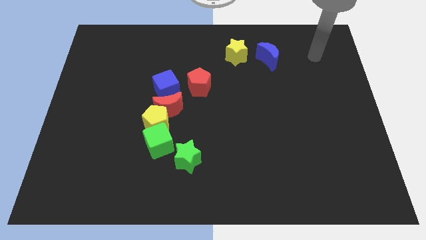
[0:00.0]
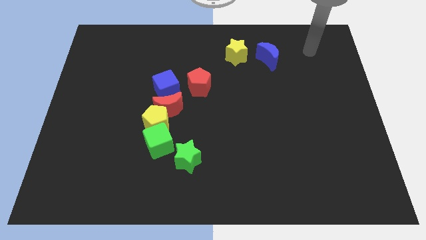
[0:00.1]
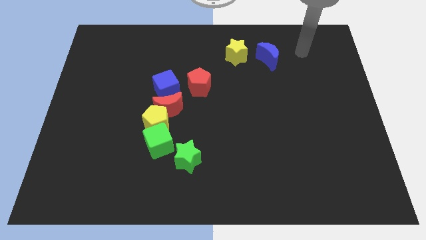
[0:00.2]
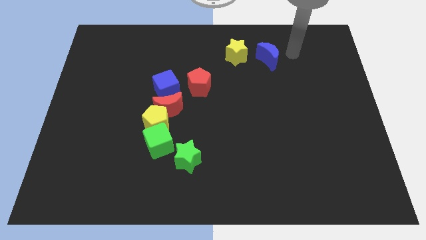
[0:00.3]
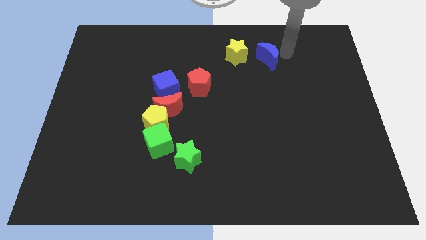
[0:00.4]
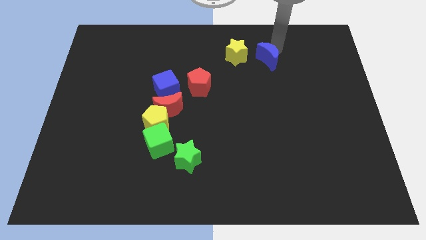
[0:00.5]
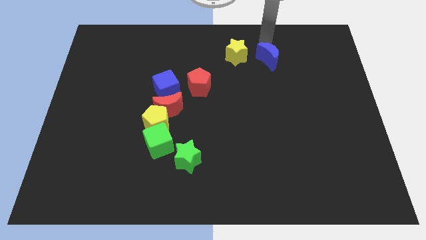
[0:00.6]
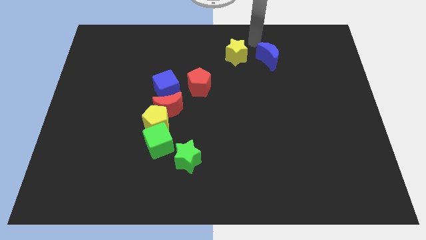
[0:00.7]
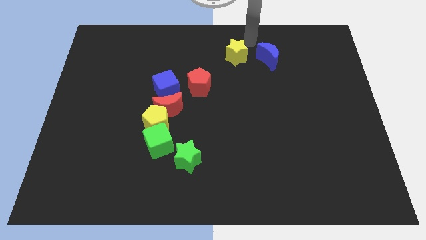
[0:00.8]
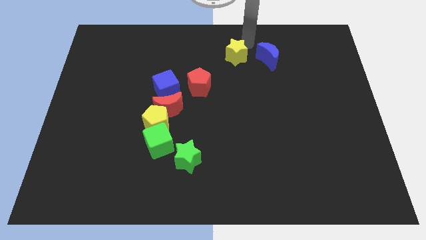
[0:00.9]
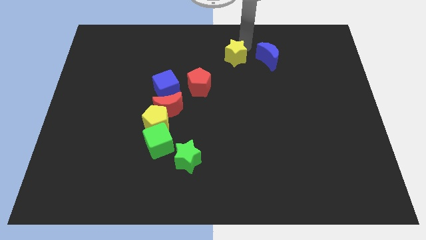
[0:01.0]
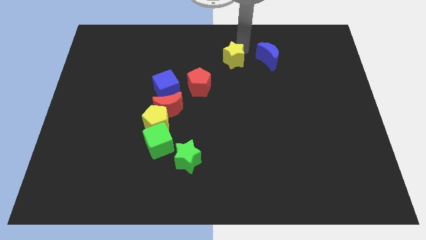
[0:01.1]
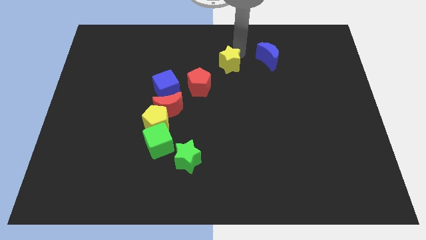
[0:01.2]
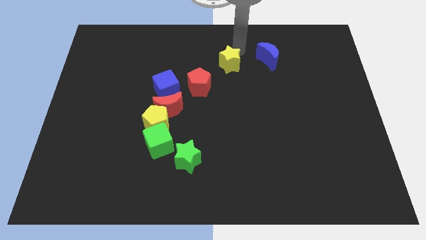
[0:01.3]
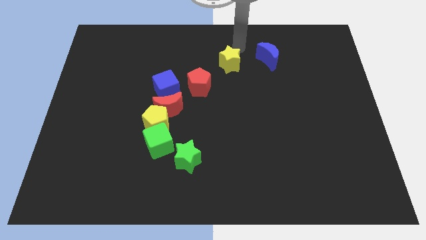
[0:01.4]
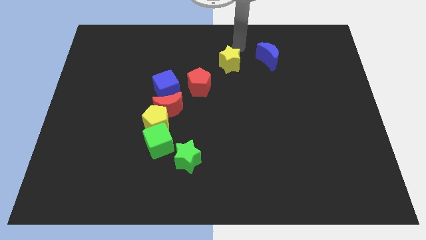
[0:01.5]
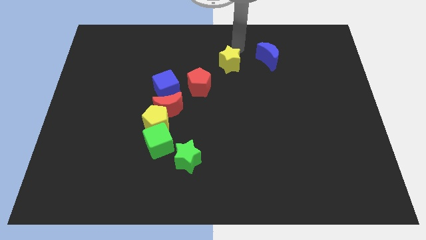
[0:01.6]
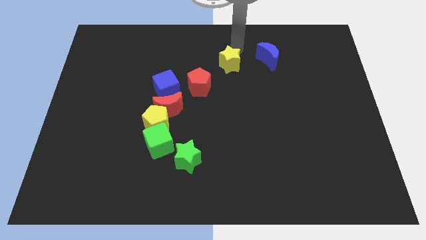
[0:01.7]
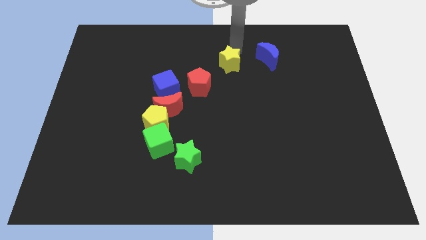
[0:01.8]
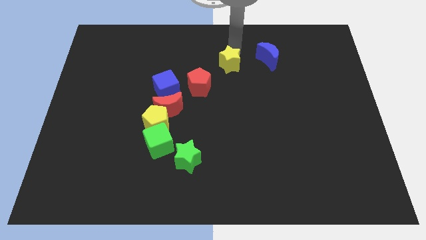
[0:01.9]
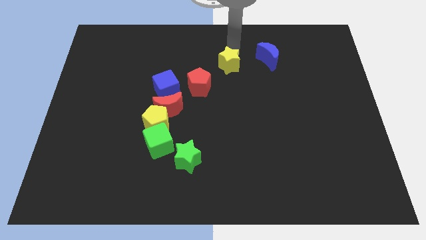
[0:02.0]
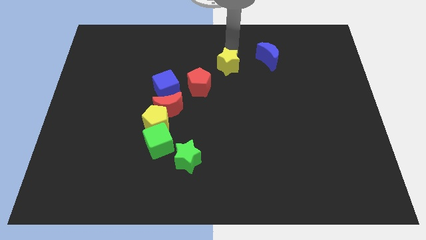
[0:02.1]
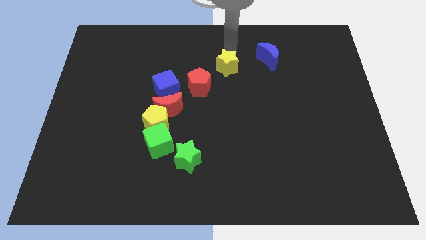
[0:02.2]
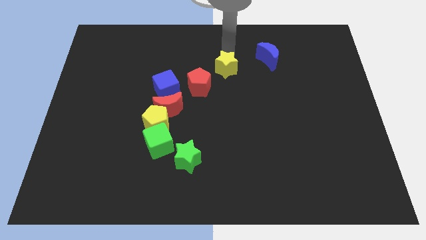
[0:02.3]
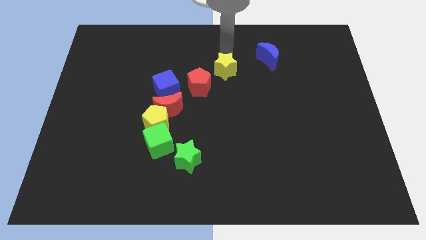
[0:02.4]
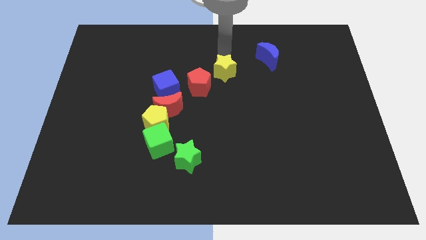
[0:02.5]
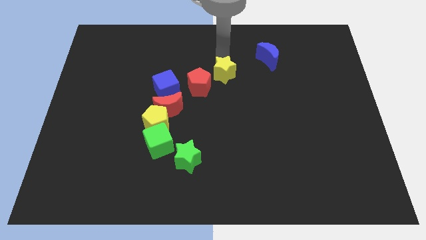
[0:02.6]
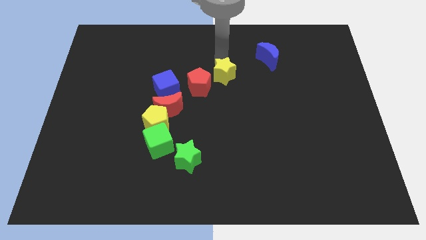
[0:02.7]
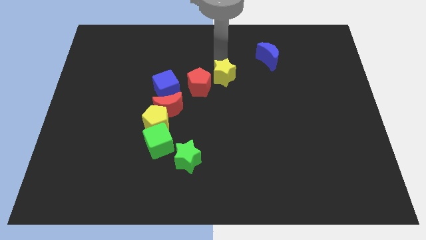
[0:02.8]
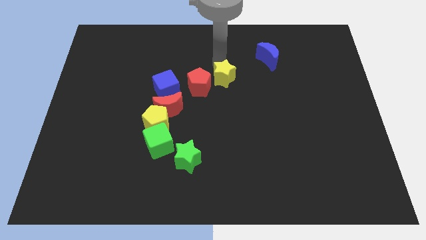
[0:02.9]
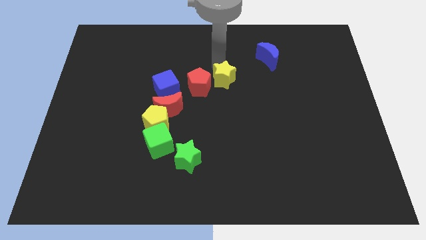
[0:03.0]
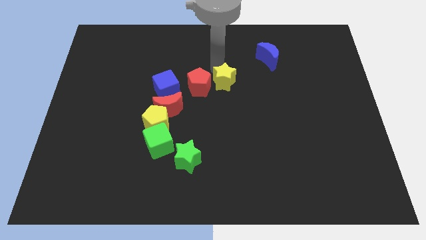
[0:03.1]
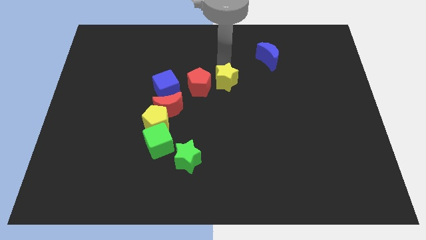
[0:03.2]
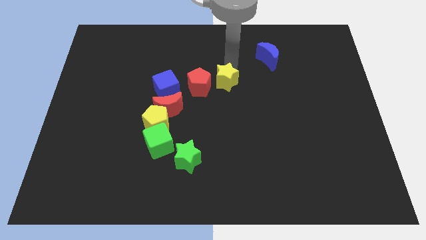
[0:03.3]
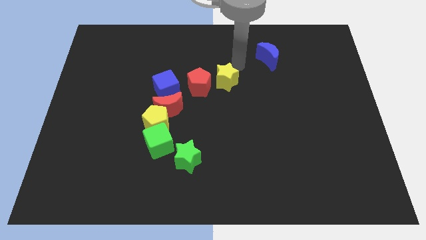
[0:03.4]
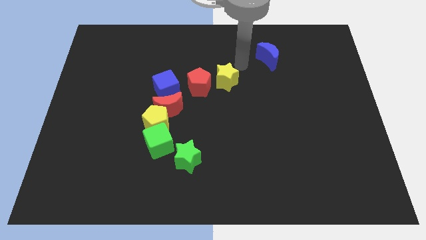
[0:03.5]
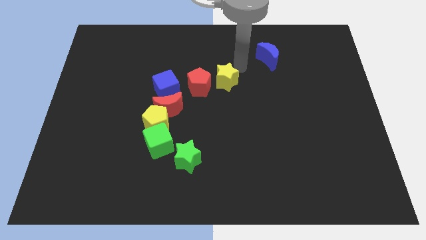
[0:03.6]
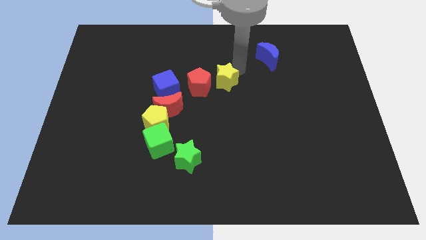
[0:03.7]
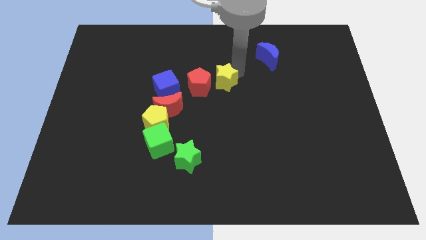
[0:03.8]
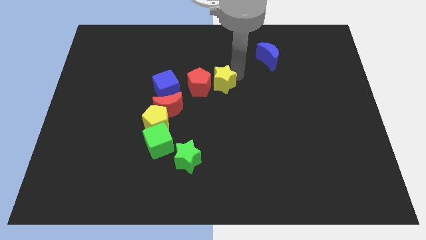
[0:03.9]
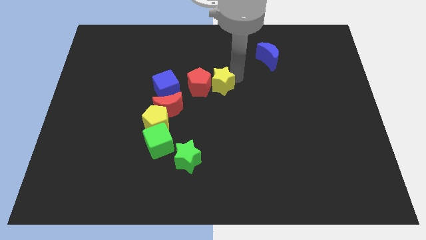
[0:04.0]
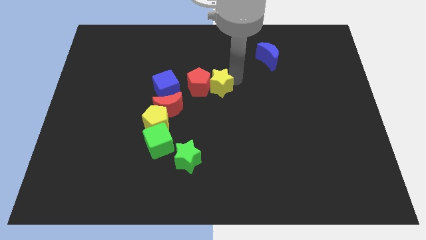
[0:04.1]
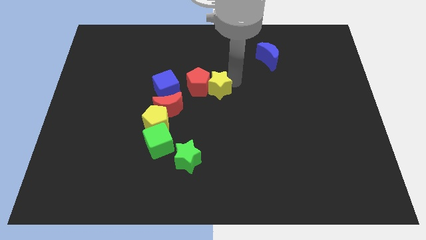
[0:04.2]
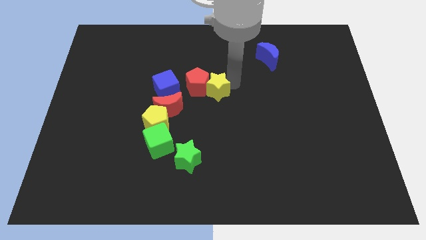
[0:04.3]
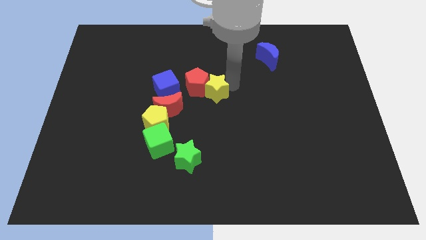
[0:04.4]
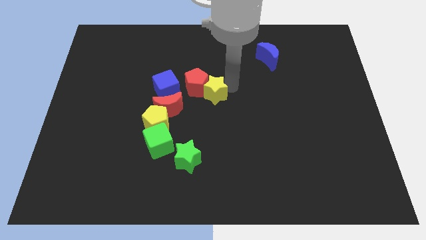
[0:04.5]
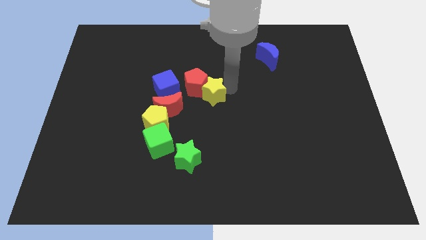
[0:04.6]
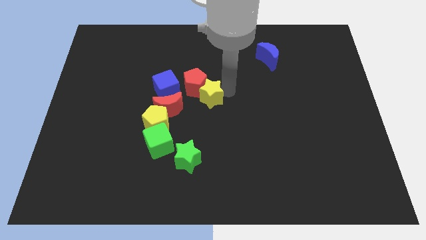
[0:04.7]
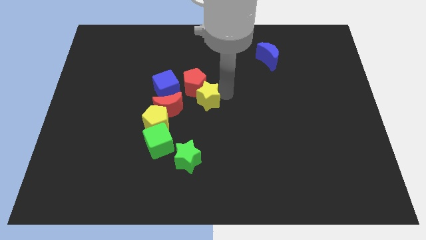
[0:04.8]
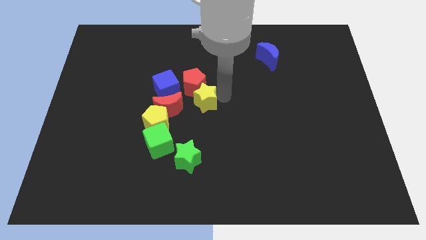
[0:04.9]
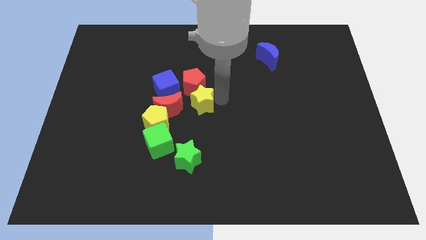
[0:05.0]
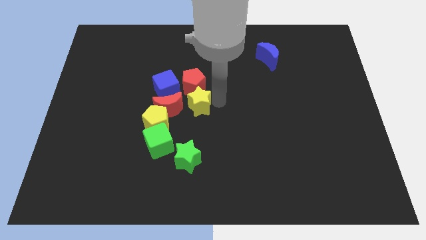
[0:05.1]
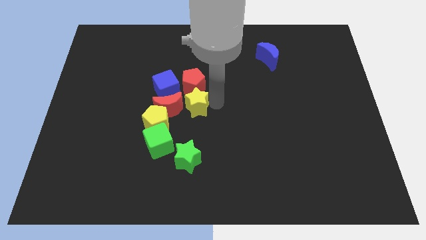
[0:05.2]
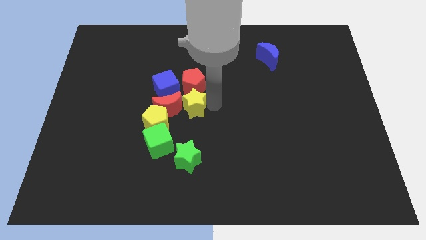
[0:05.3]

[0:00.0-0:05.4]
put the yellow star next to the red moon

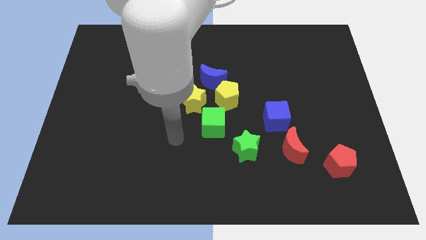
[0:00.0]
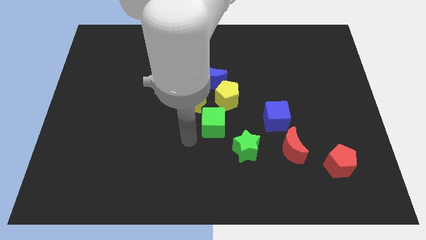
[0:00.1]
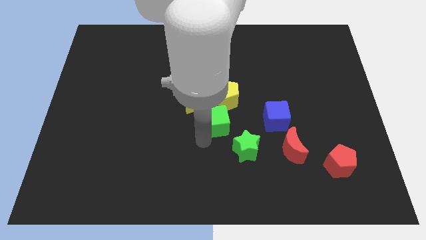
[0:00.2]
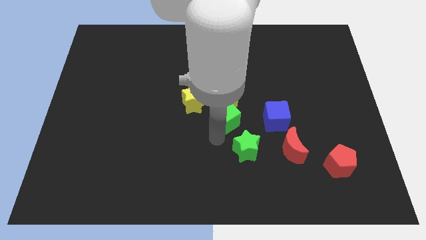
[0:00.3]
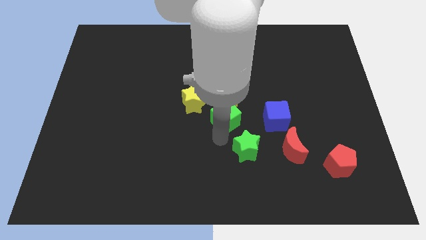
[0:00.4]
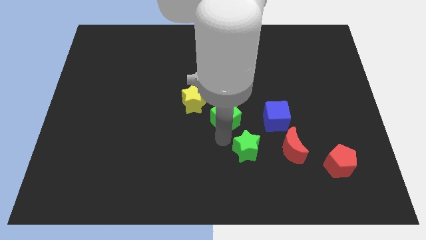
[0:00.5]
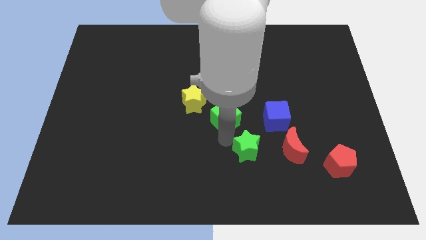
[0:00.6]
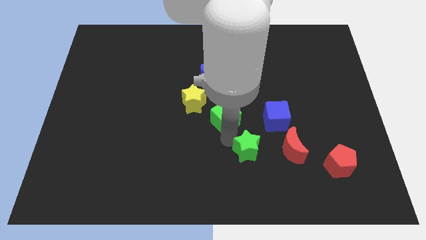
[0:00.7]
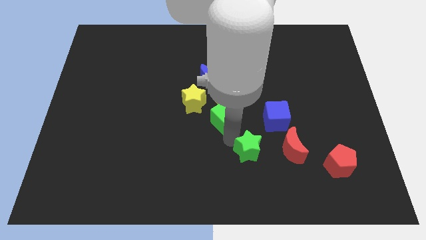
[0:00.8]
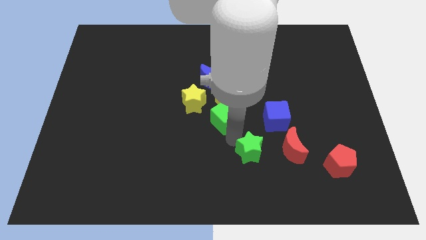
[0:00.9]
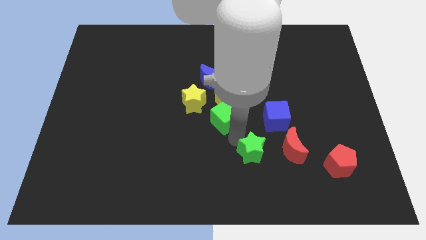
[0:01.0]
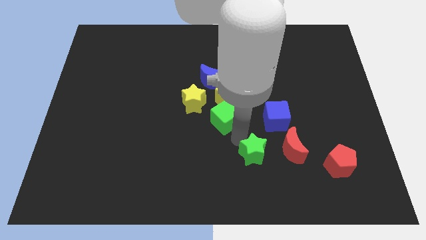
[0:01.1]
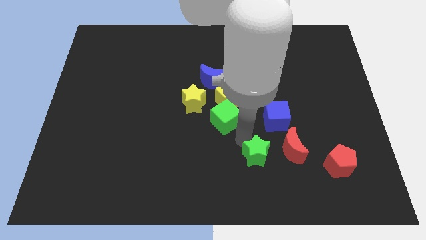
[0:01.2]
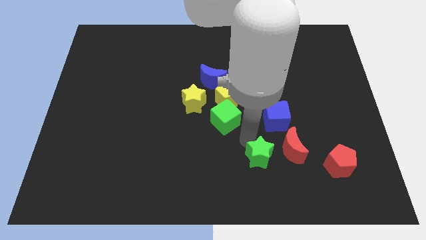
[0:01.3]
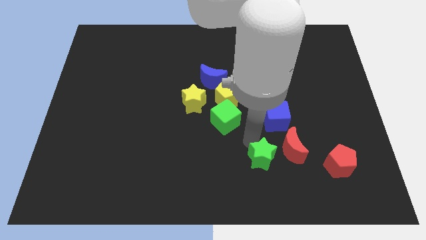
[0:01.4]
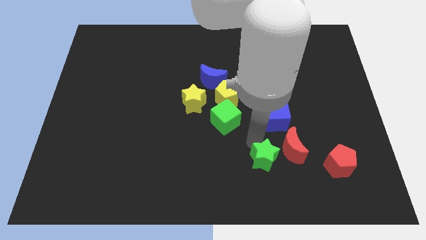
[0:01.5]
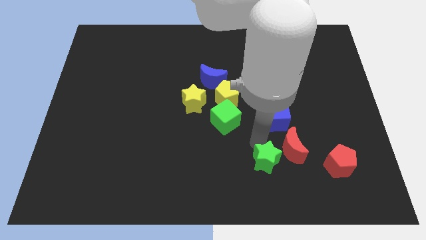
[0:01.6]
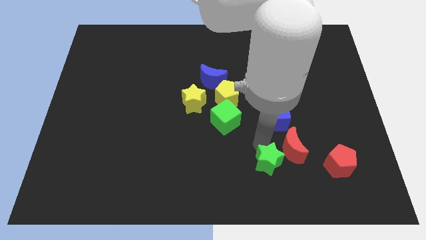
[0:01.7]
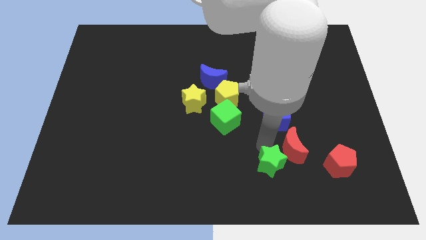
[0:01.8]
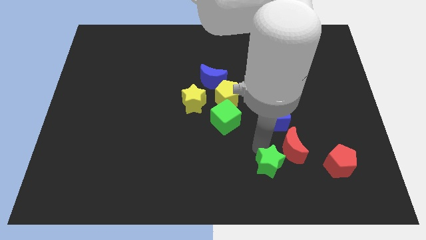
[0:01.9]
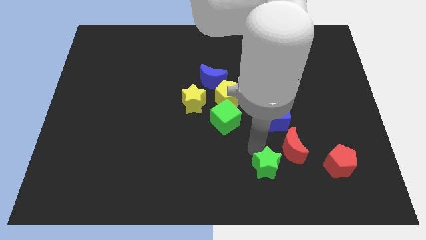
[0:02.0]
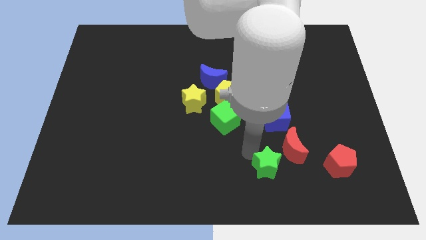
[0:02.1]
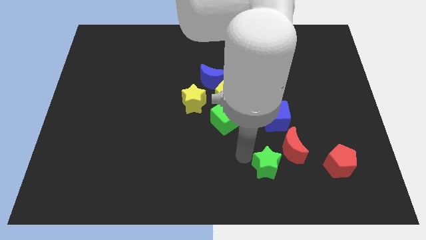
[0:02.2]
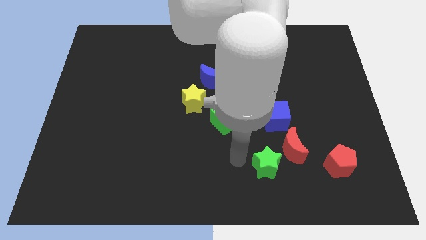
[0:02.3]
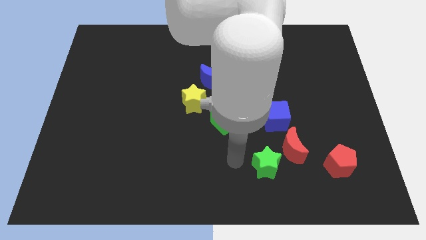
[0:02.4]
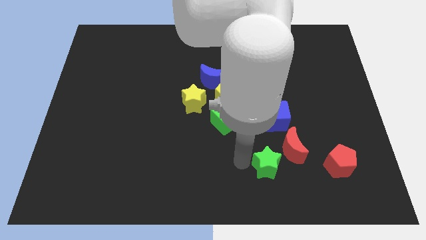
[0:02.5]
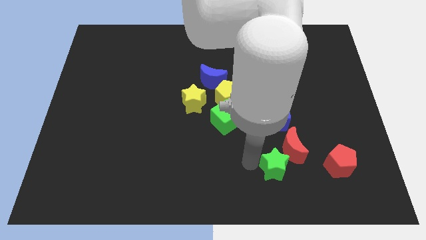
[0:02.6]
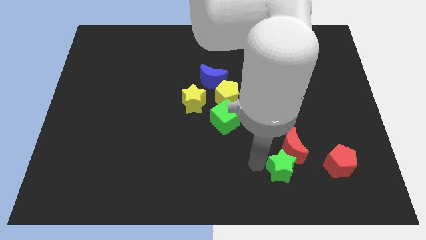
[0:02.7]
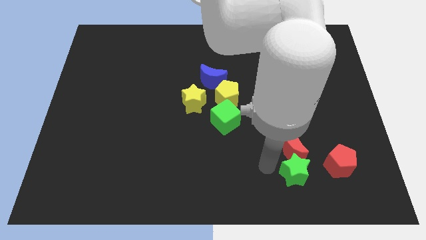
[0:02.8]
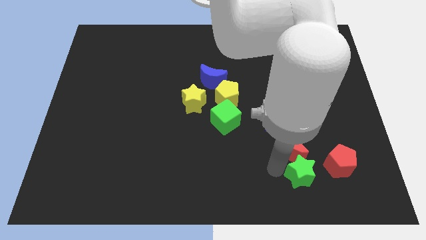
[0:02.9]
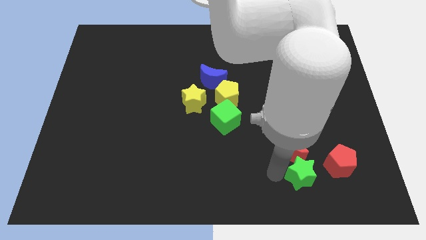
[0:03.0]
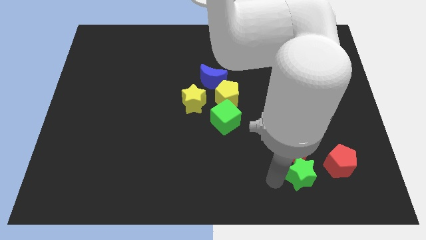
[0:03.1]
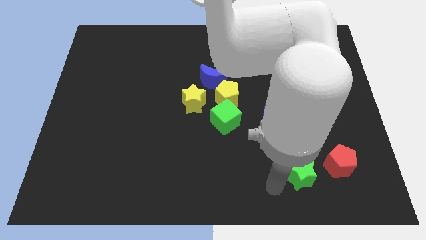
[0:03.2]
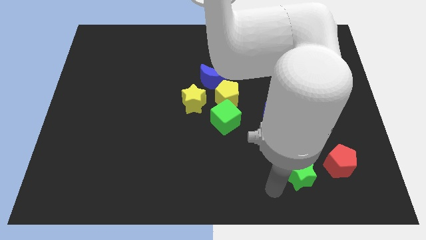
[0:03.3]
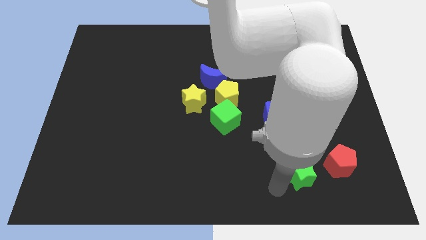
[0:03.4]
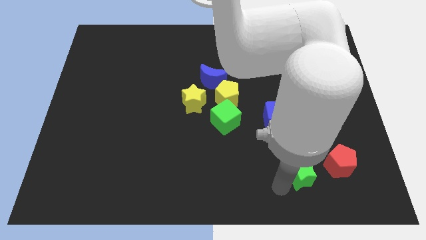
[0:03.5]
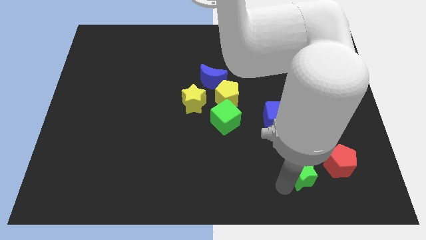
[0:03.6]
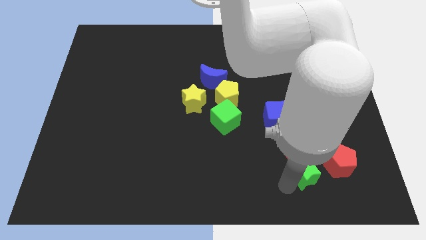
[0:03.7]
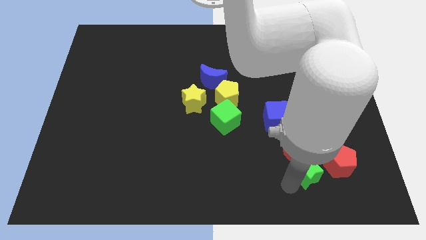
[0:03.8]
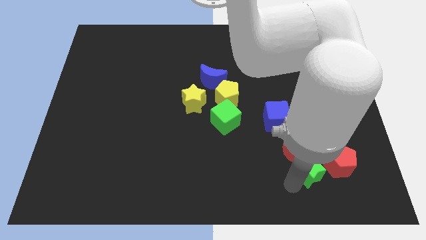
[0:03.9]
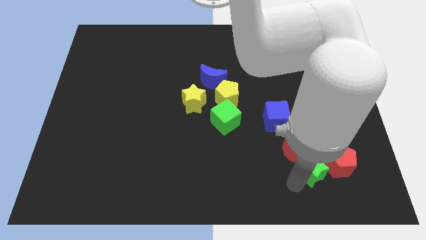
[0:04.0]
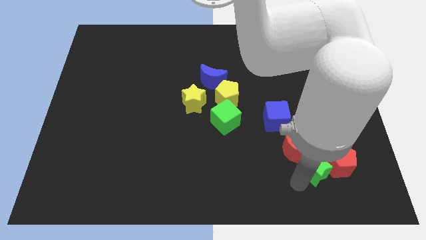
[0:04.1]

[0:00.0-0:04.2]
put the green star close to the red pentagon
